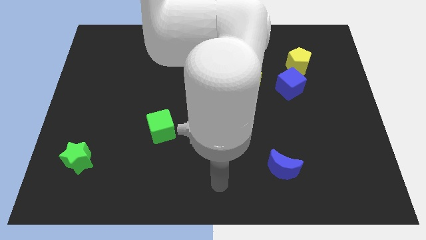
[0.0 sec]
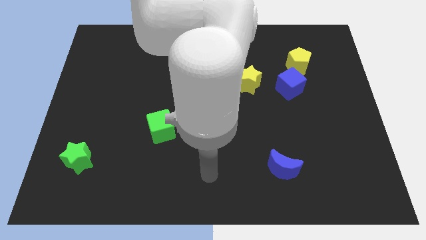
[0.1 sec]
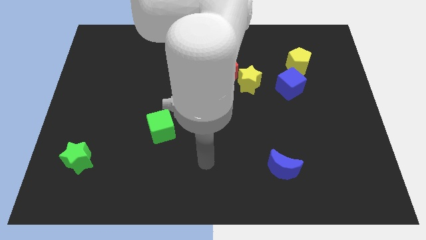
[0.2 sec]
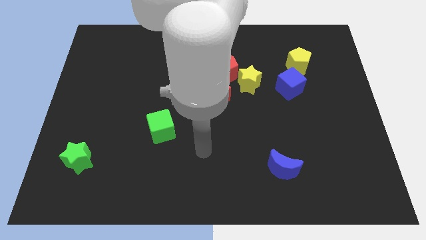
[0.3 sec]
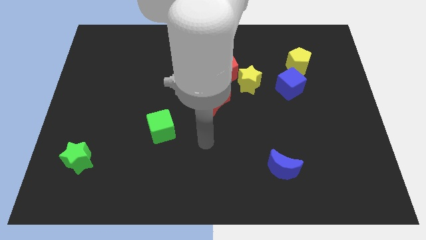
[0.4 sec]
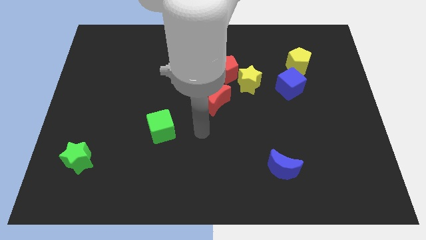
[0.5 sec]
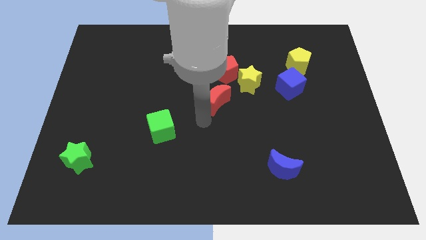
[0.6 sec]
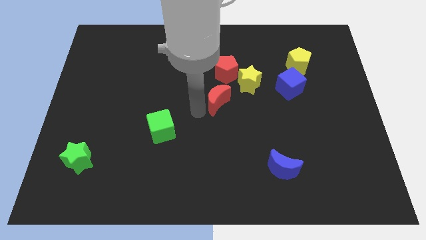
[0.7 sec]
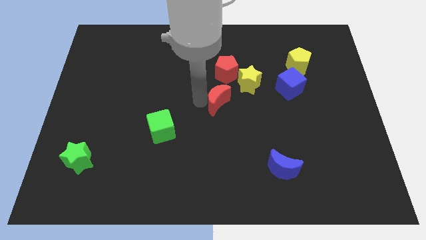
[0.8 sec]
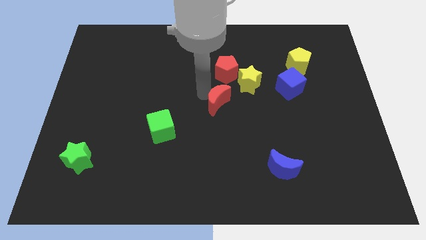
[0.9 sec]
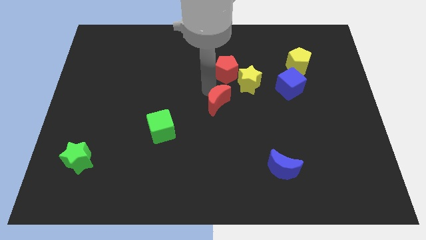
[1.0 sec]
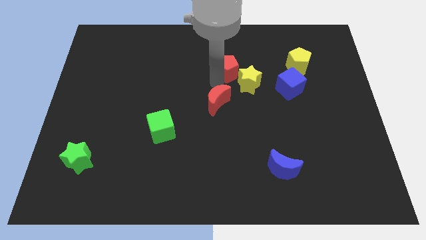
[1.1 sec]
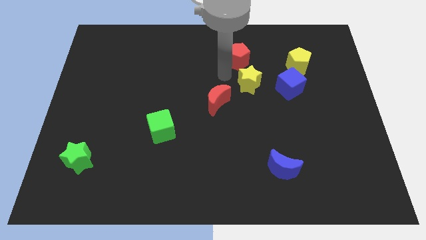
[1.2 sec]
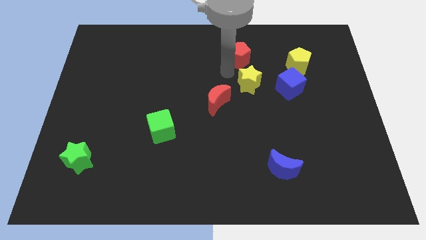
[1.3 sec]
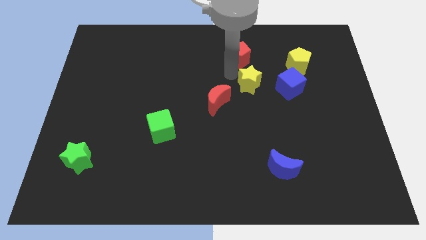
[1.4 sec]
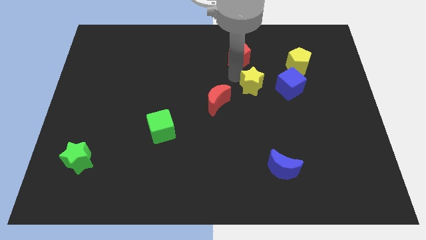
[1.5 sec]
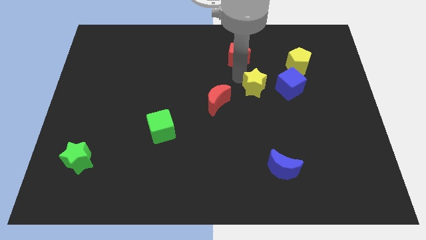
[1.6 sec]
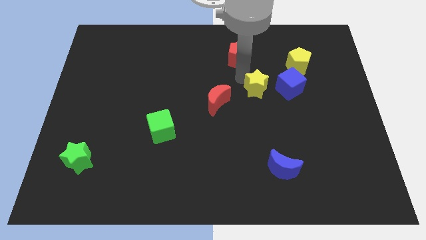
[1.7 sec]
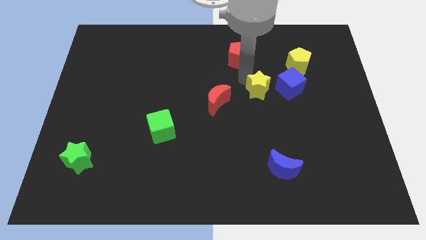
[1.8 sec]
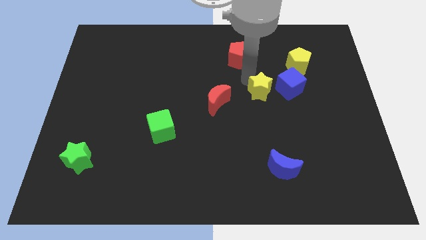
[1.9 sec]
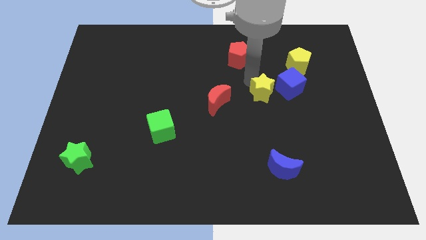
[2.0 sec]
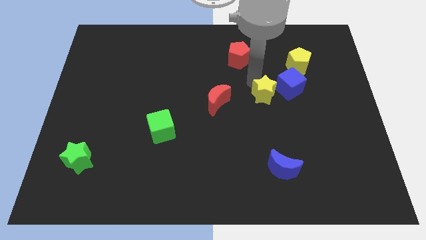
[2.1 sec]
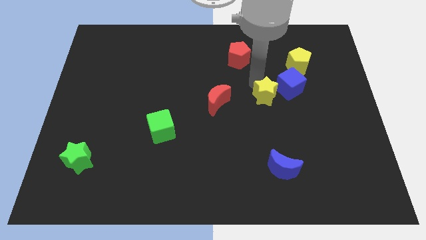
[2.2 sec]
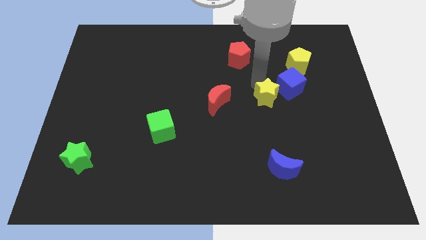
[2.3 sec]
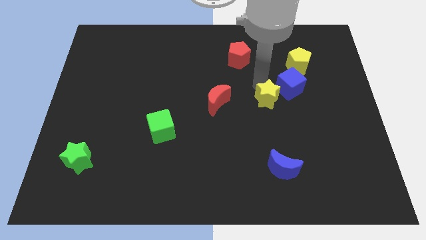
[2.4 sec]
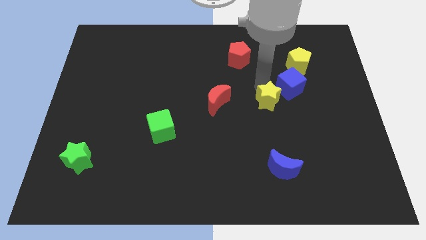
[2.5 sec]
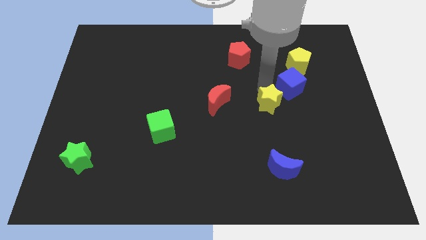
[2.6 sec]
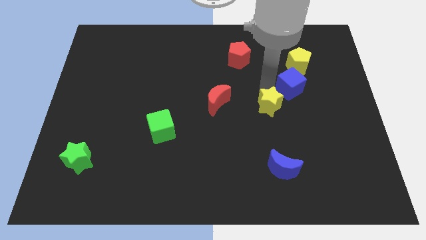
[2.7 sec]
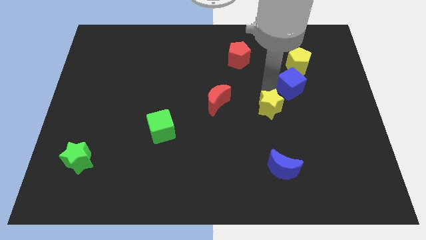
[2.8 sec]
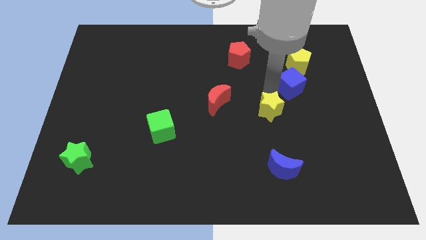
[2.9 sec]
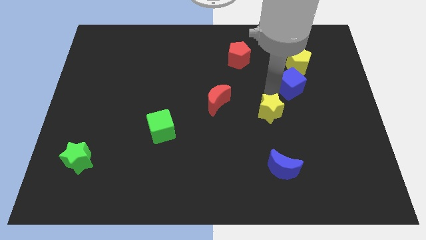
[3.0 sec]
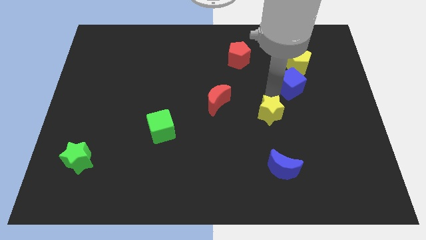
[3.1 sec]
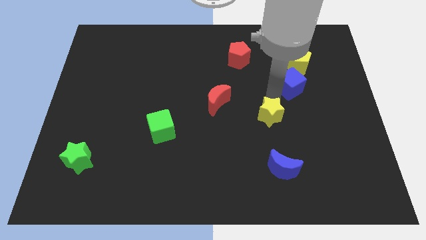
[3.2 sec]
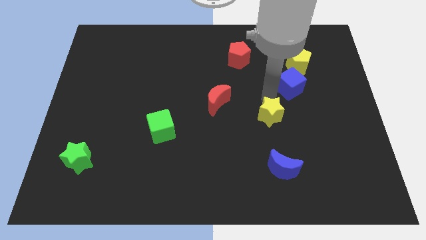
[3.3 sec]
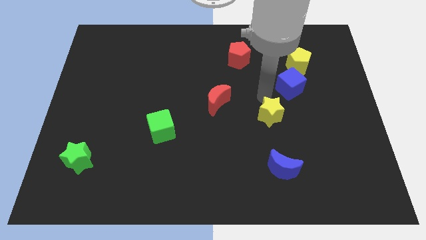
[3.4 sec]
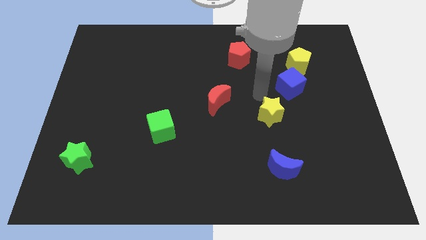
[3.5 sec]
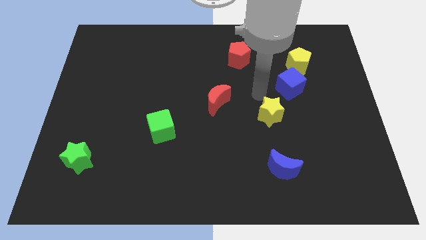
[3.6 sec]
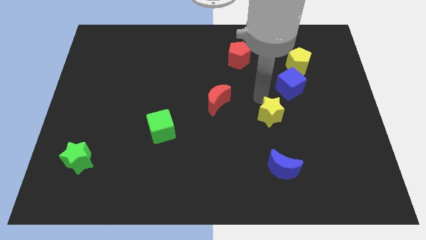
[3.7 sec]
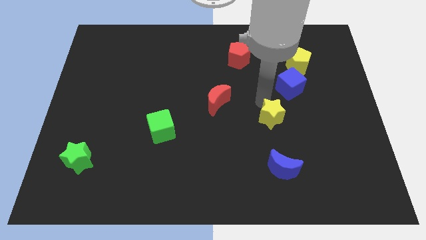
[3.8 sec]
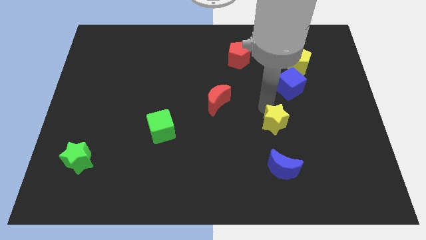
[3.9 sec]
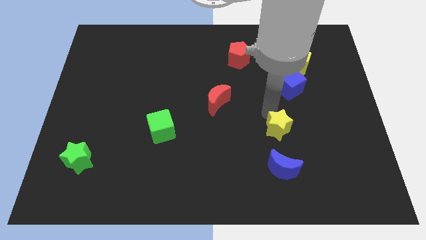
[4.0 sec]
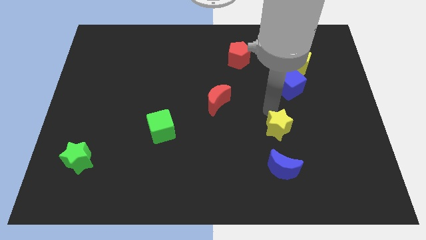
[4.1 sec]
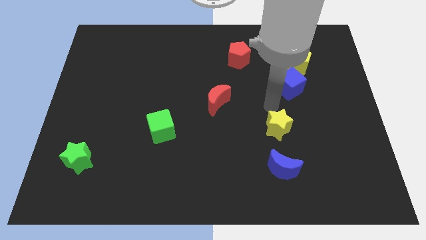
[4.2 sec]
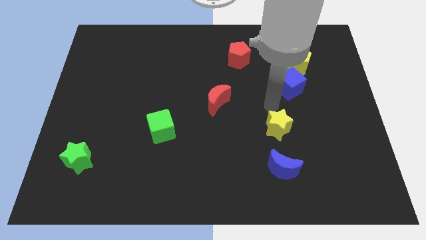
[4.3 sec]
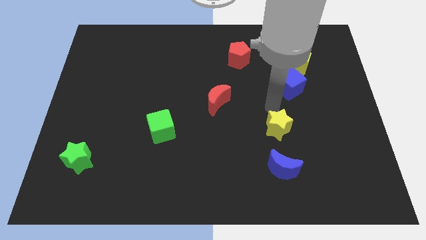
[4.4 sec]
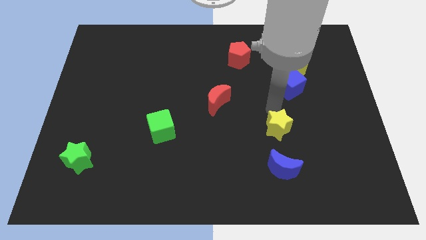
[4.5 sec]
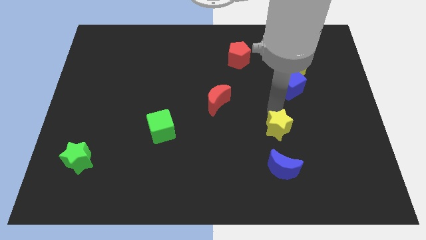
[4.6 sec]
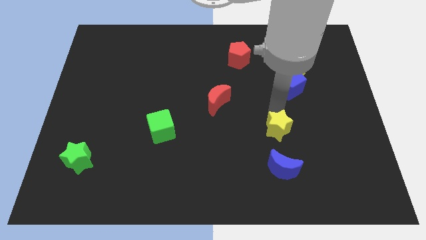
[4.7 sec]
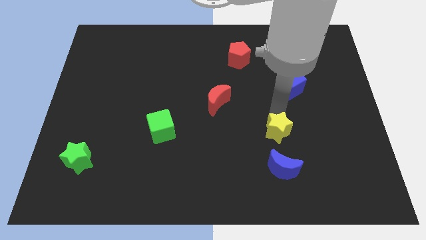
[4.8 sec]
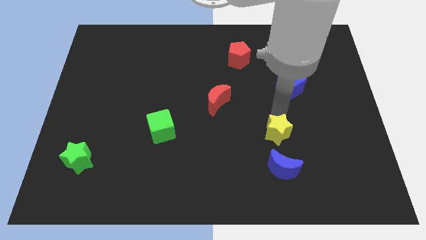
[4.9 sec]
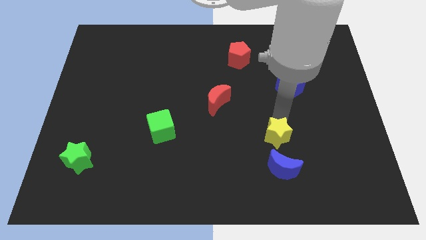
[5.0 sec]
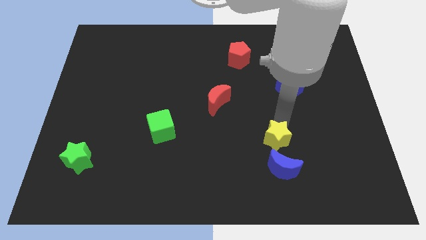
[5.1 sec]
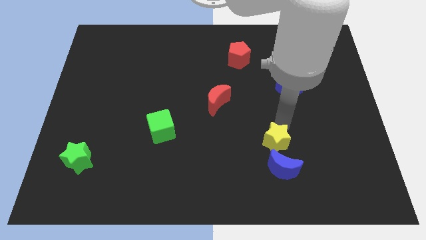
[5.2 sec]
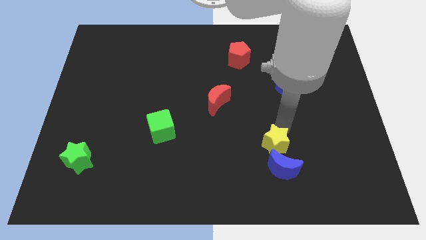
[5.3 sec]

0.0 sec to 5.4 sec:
slide the yellow star towards the blue moon

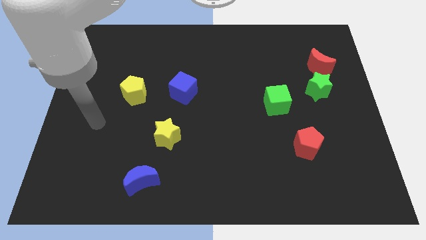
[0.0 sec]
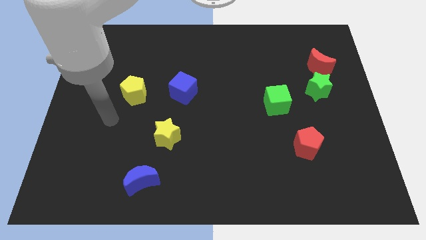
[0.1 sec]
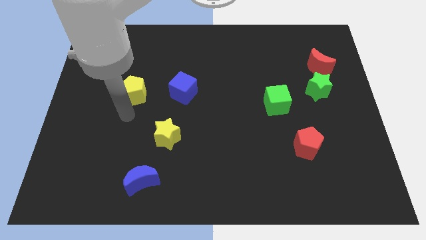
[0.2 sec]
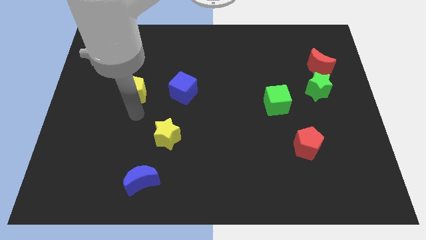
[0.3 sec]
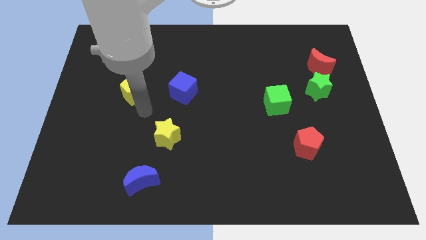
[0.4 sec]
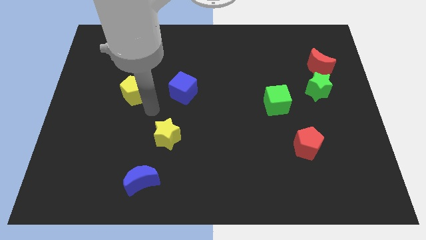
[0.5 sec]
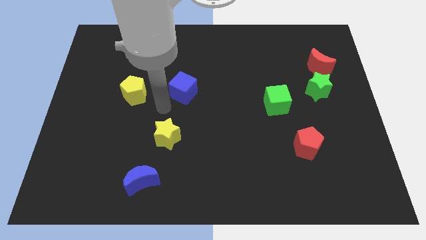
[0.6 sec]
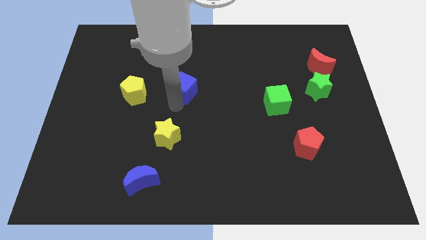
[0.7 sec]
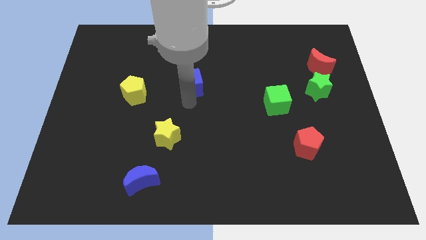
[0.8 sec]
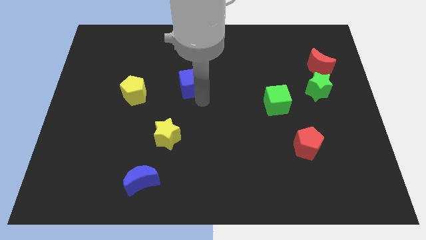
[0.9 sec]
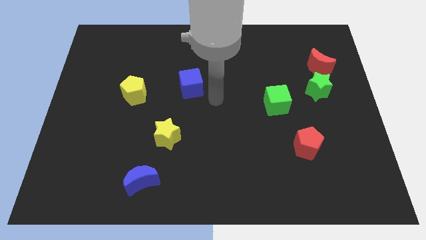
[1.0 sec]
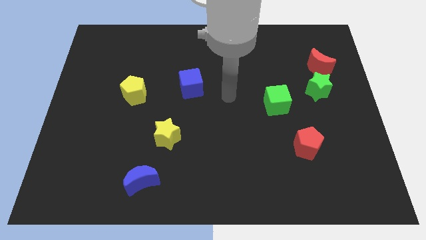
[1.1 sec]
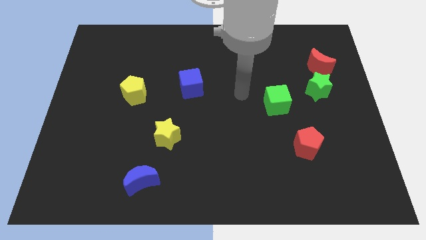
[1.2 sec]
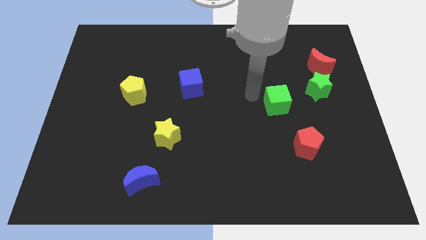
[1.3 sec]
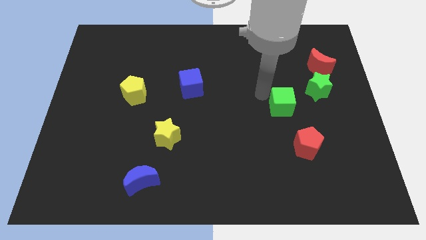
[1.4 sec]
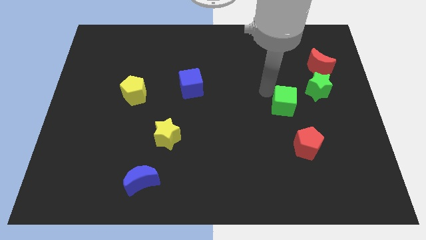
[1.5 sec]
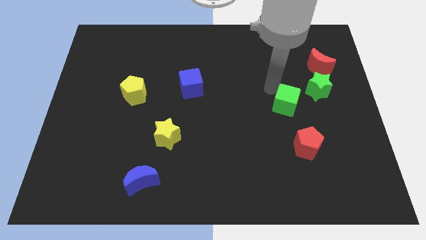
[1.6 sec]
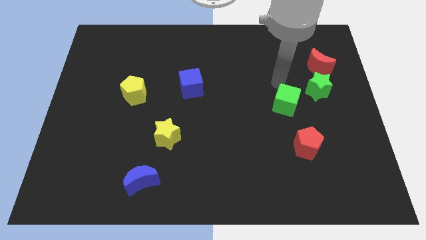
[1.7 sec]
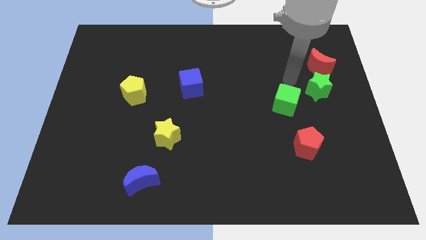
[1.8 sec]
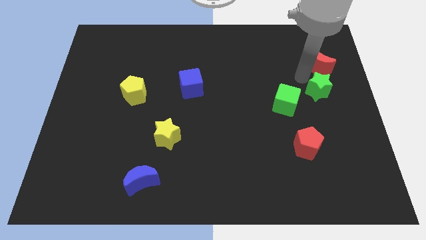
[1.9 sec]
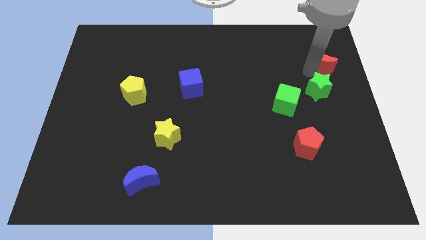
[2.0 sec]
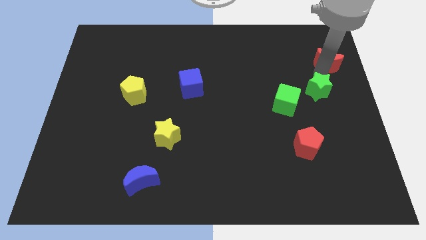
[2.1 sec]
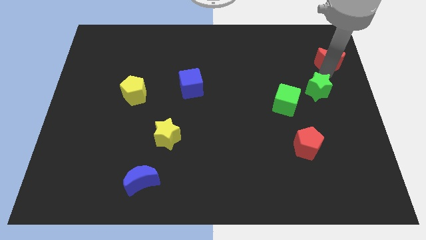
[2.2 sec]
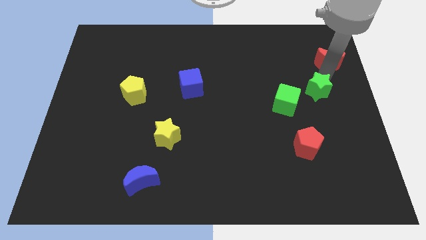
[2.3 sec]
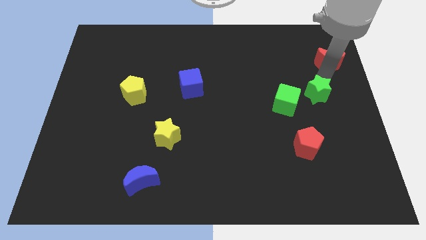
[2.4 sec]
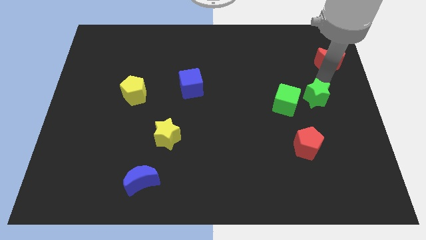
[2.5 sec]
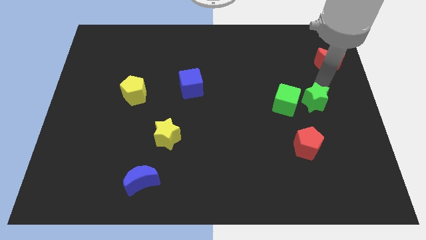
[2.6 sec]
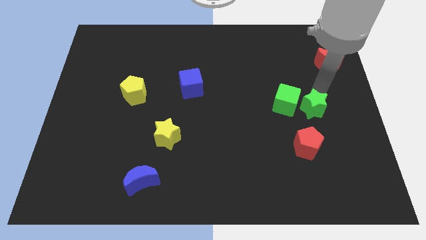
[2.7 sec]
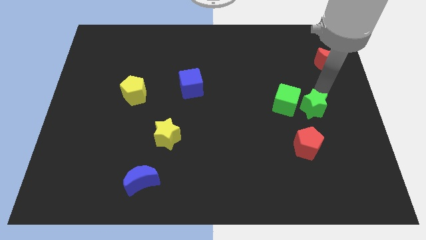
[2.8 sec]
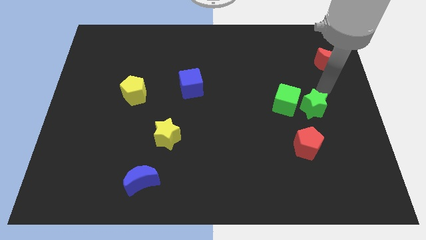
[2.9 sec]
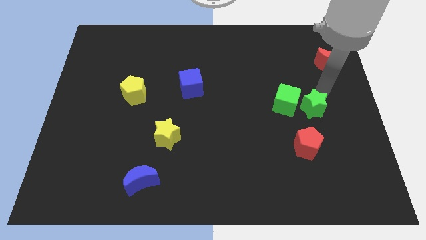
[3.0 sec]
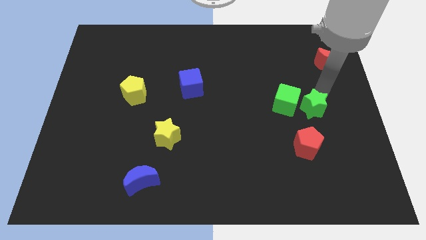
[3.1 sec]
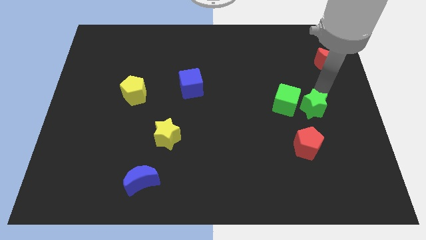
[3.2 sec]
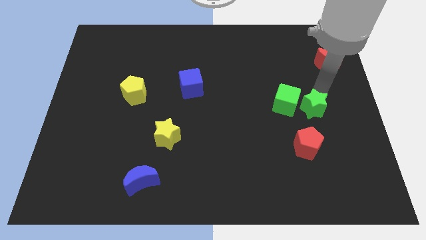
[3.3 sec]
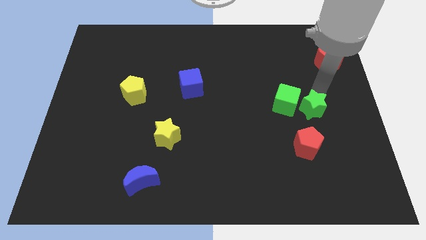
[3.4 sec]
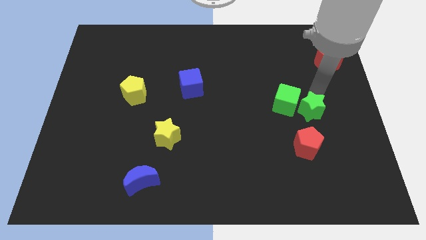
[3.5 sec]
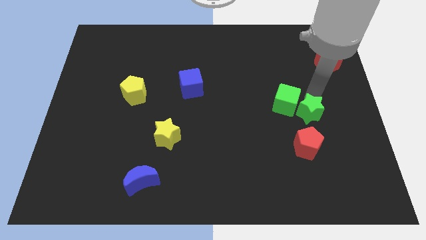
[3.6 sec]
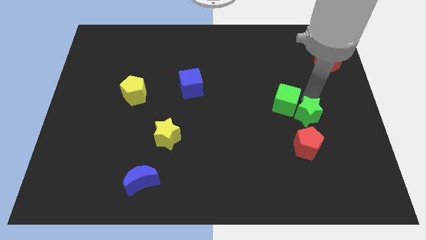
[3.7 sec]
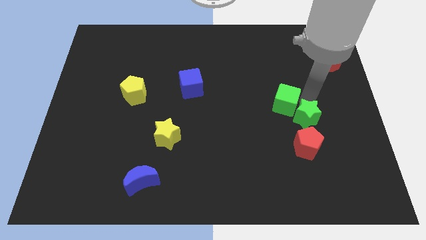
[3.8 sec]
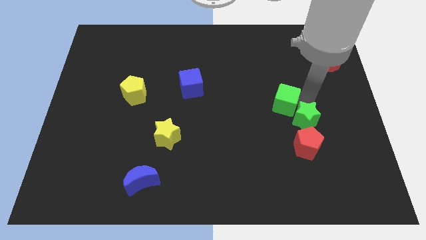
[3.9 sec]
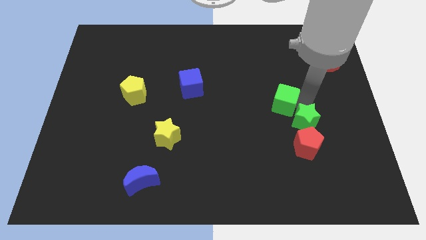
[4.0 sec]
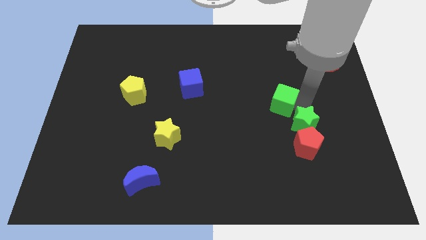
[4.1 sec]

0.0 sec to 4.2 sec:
move the green star towards the red pentagon
